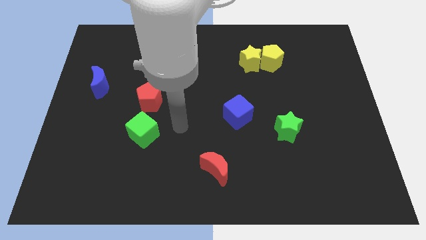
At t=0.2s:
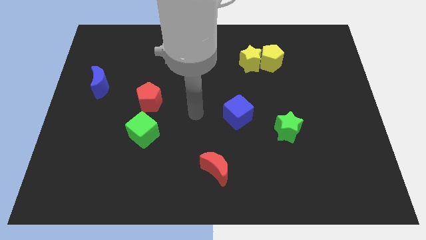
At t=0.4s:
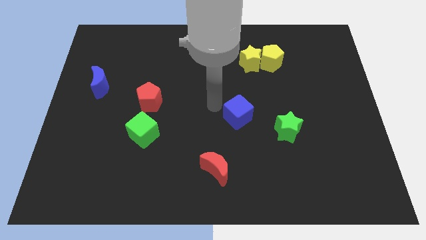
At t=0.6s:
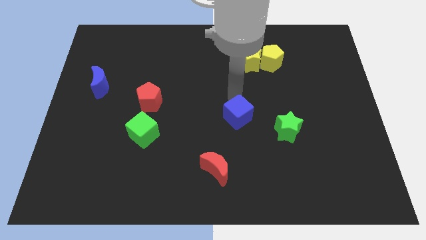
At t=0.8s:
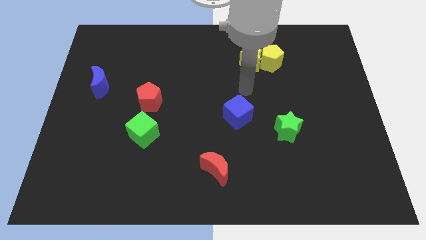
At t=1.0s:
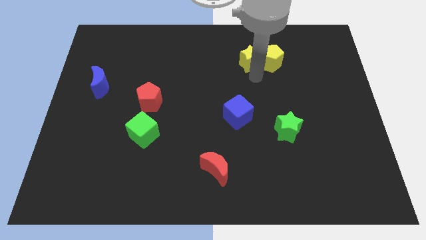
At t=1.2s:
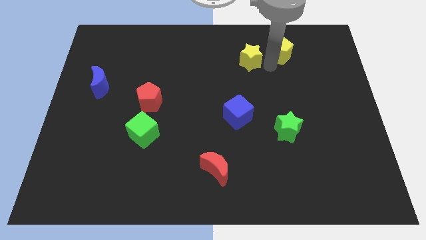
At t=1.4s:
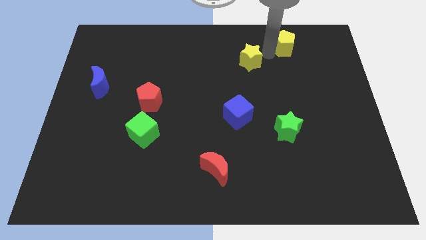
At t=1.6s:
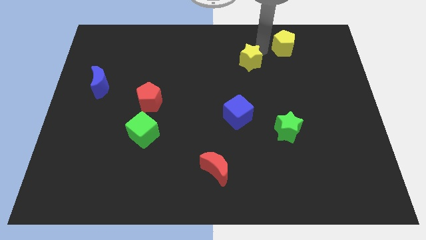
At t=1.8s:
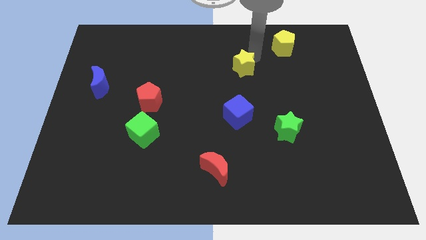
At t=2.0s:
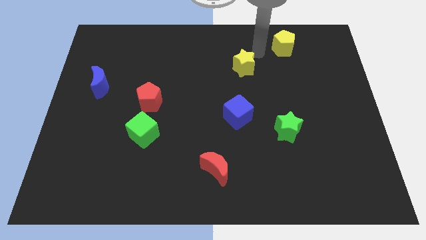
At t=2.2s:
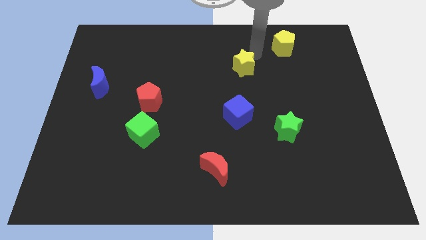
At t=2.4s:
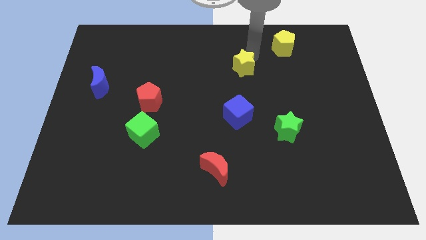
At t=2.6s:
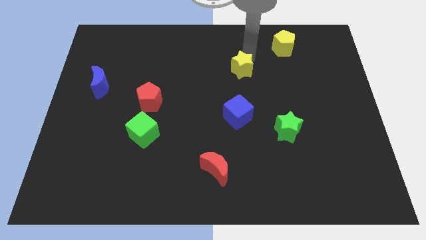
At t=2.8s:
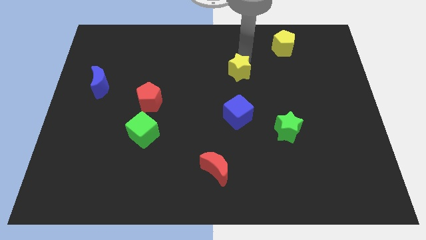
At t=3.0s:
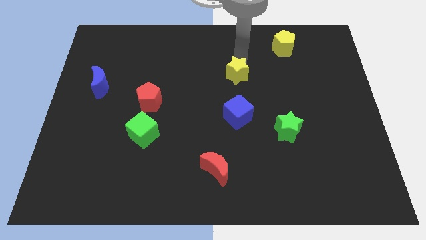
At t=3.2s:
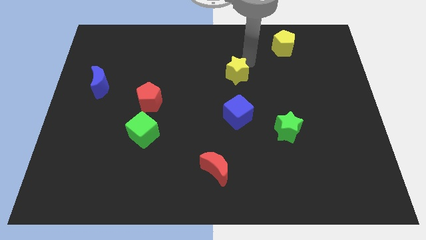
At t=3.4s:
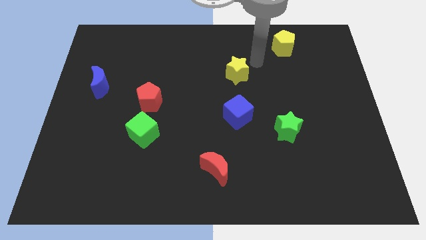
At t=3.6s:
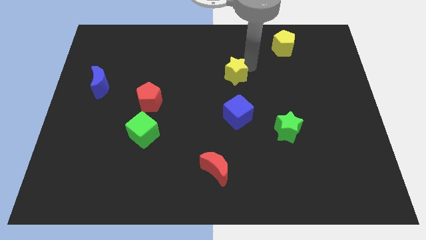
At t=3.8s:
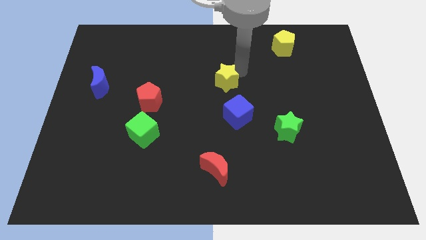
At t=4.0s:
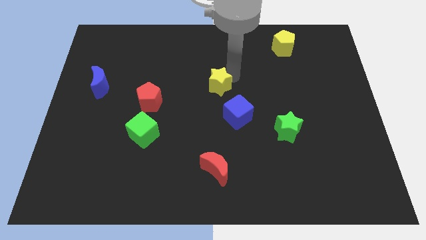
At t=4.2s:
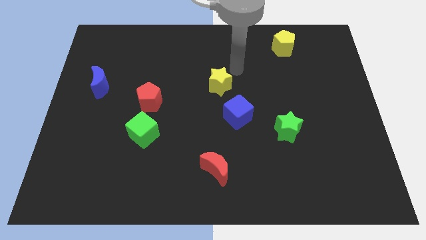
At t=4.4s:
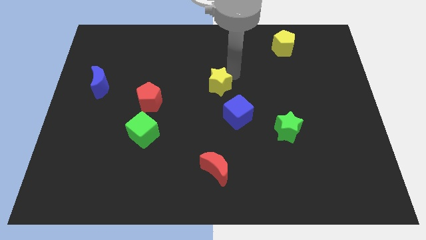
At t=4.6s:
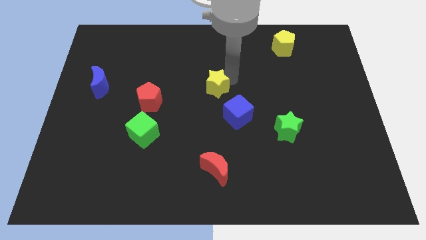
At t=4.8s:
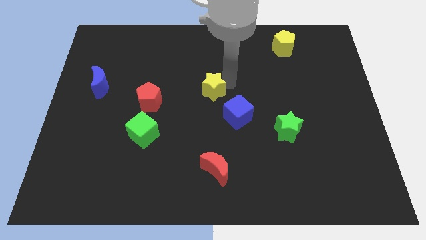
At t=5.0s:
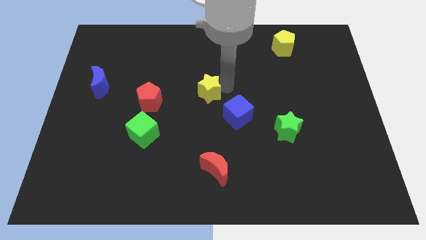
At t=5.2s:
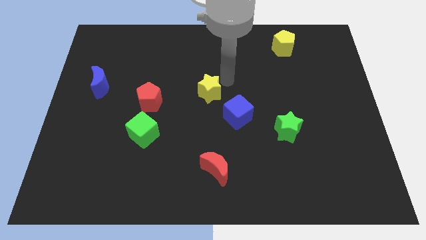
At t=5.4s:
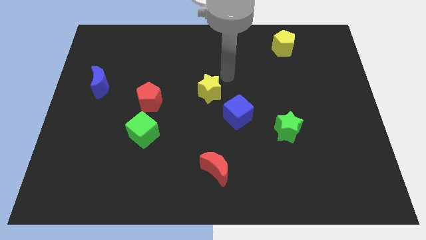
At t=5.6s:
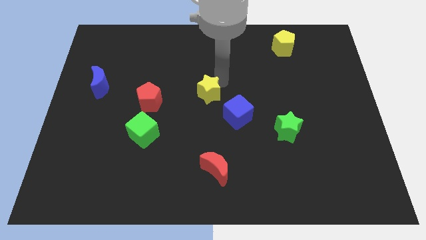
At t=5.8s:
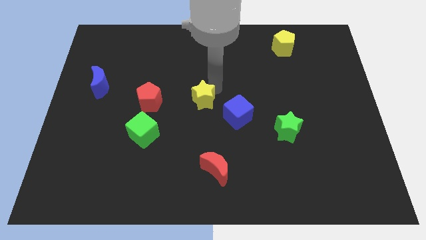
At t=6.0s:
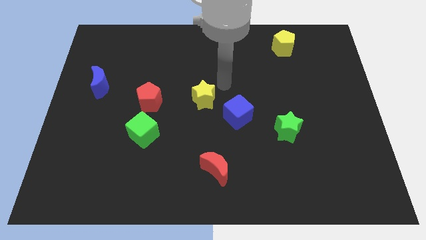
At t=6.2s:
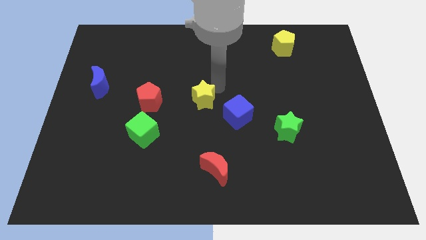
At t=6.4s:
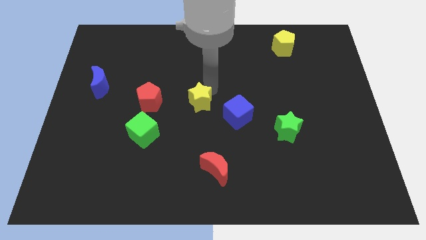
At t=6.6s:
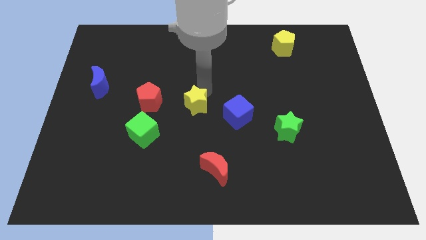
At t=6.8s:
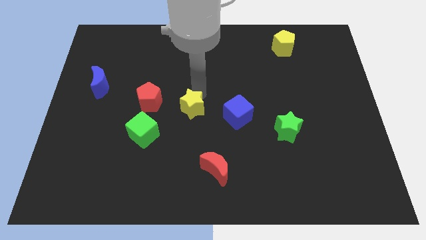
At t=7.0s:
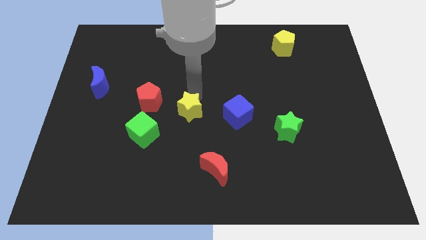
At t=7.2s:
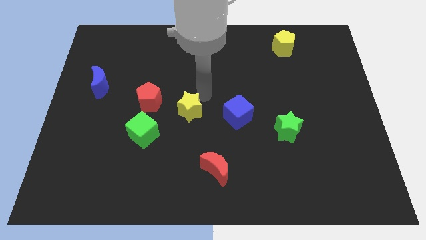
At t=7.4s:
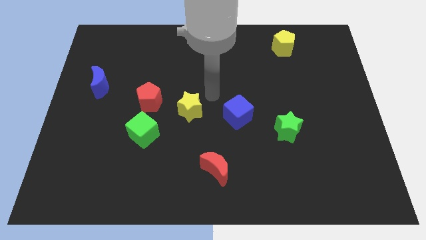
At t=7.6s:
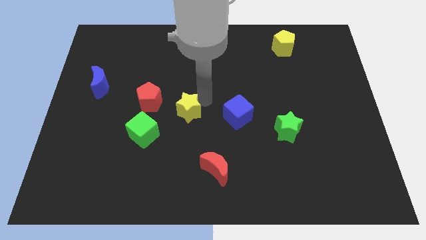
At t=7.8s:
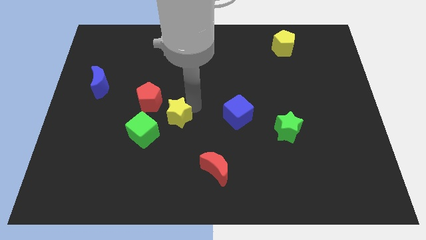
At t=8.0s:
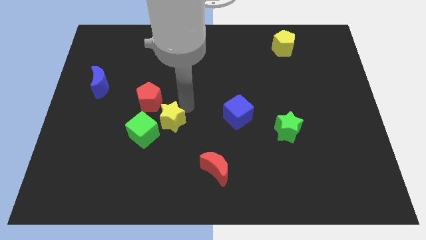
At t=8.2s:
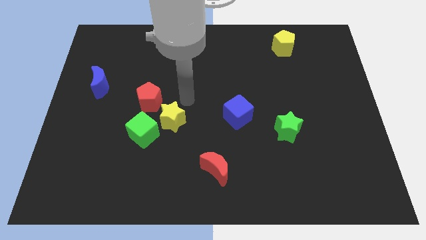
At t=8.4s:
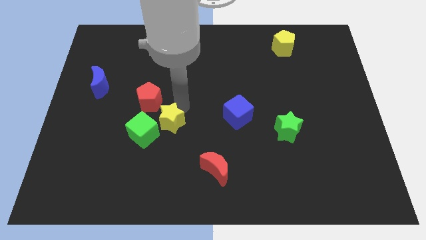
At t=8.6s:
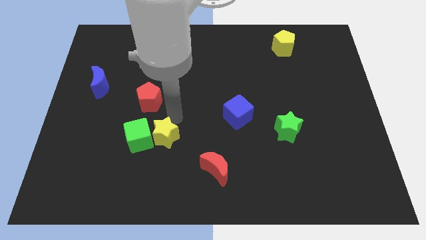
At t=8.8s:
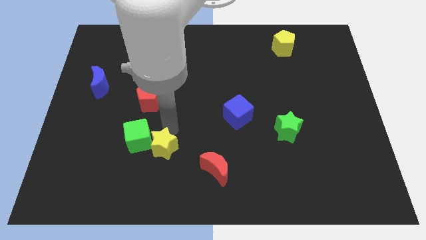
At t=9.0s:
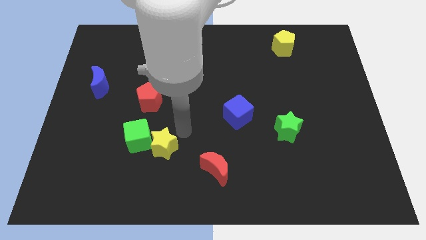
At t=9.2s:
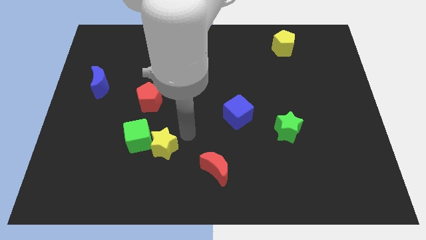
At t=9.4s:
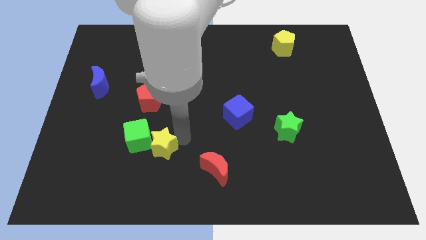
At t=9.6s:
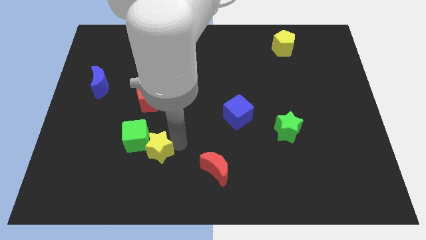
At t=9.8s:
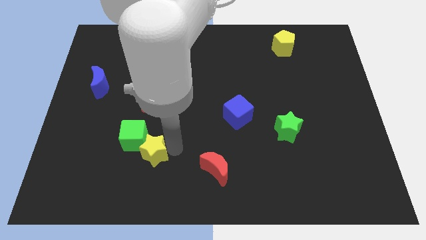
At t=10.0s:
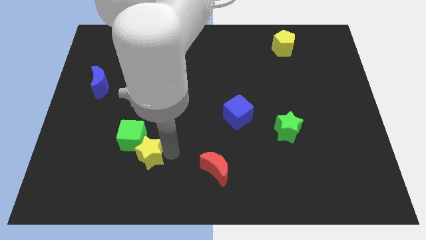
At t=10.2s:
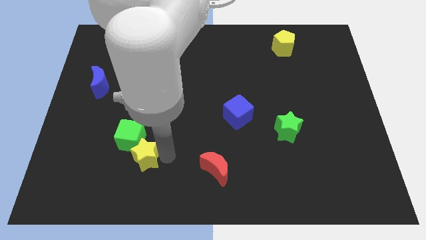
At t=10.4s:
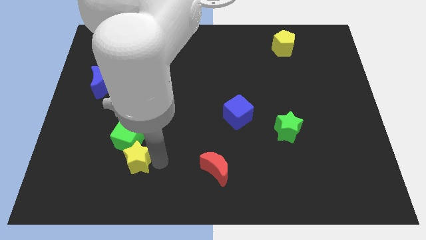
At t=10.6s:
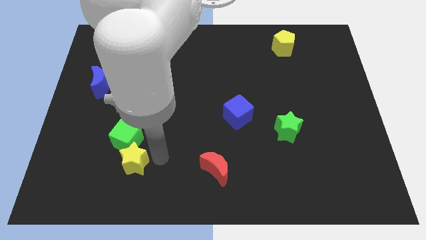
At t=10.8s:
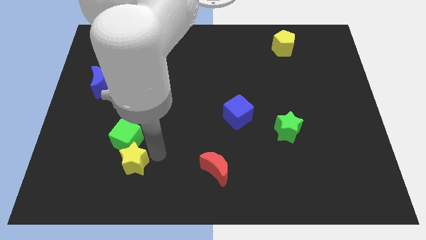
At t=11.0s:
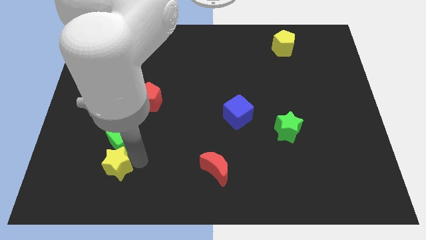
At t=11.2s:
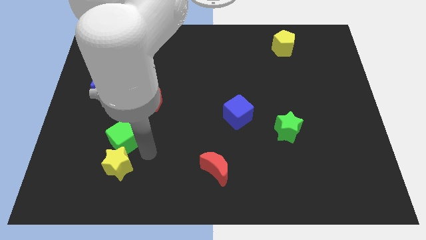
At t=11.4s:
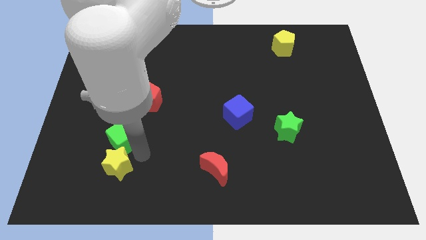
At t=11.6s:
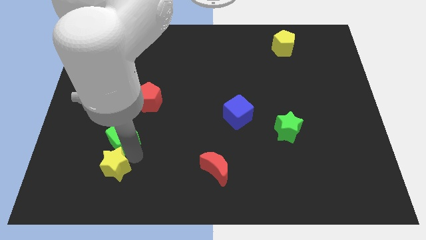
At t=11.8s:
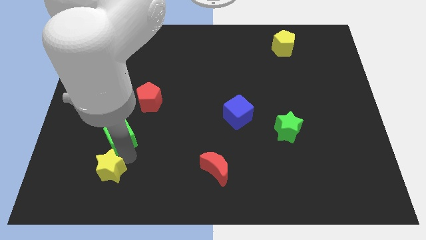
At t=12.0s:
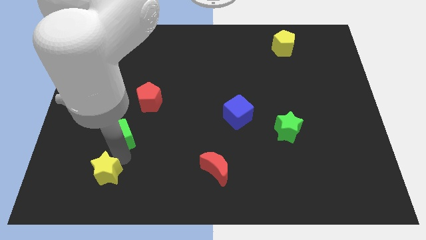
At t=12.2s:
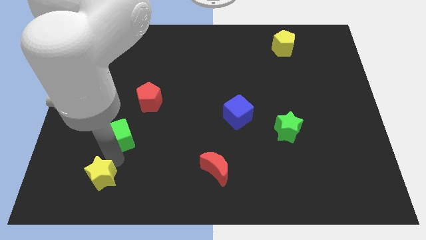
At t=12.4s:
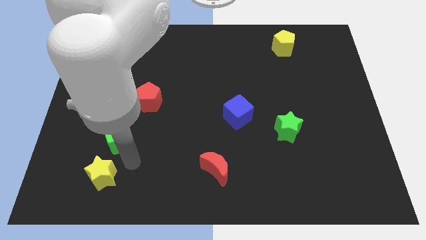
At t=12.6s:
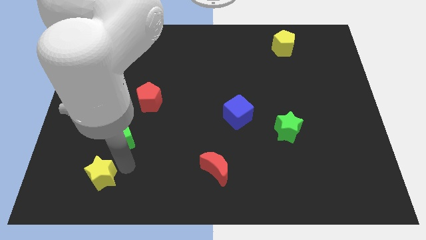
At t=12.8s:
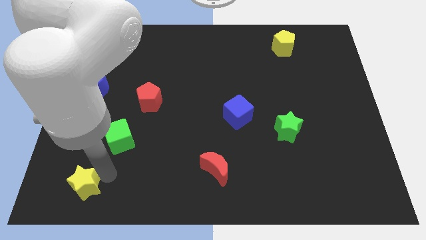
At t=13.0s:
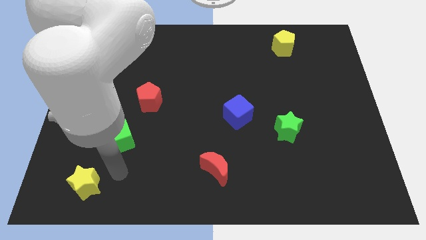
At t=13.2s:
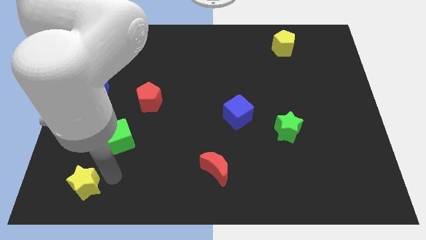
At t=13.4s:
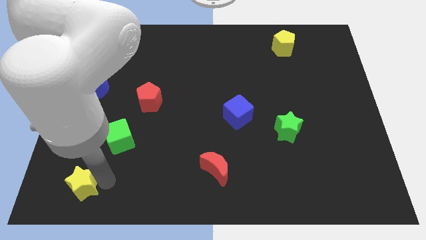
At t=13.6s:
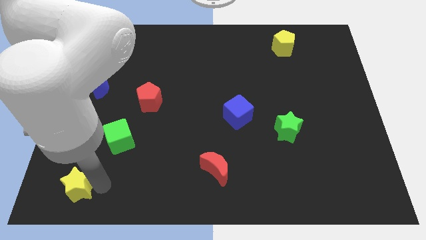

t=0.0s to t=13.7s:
move the yellow star to the bottom left

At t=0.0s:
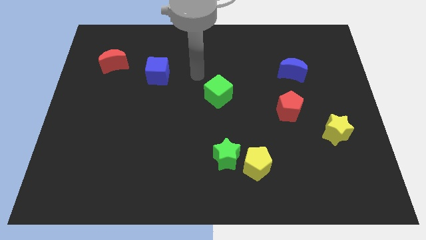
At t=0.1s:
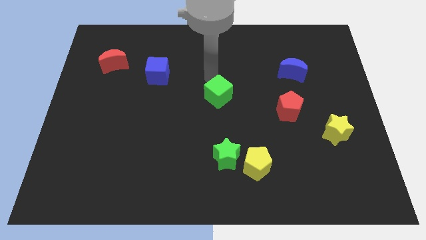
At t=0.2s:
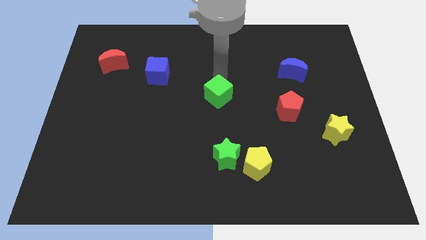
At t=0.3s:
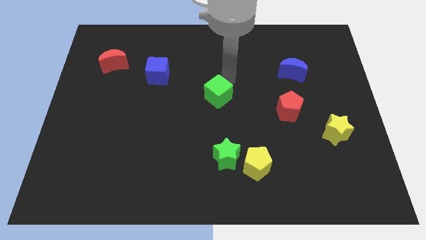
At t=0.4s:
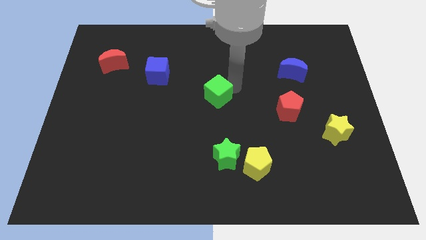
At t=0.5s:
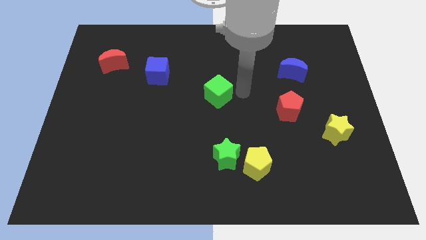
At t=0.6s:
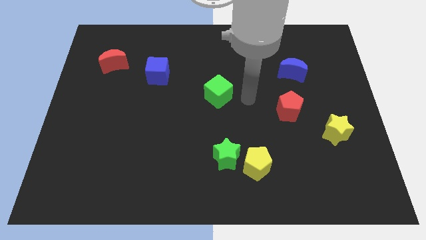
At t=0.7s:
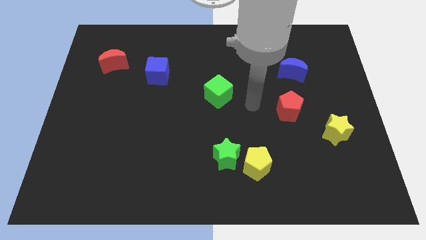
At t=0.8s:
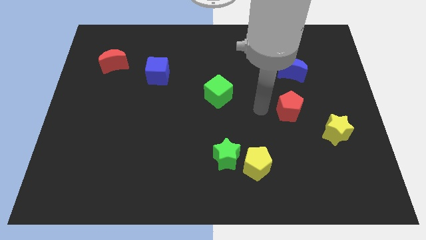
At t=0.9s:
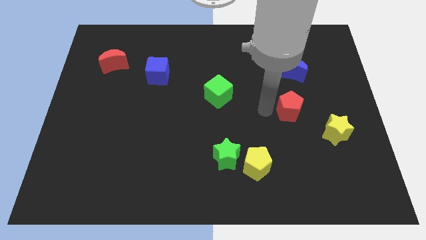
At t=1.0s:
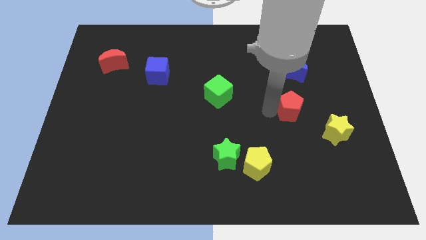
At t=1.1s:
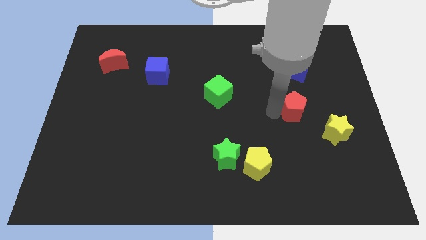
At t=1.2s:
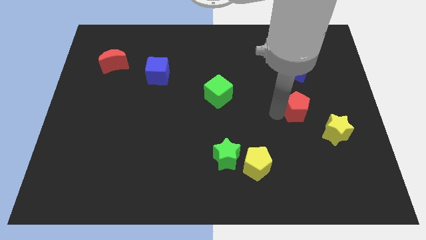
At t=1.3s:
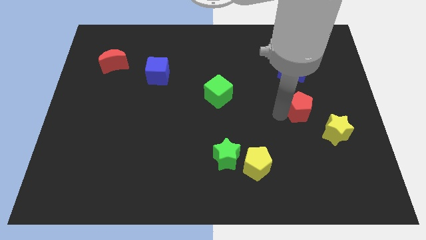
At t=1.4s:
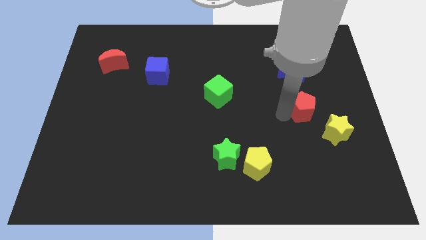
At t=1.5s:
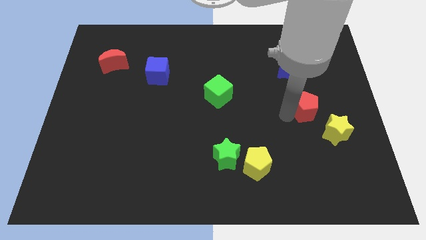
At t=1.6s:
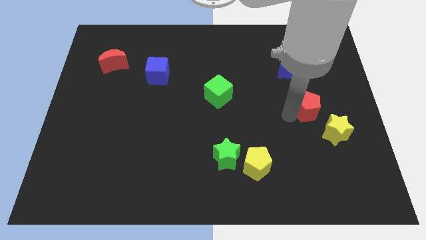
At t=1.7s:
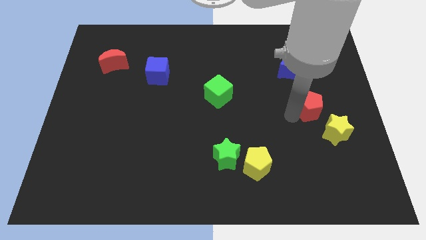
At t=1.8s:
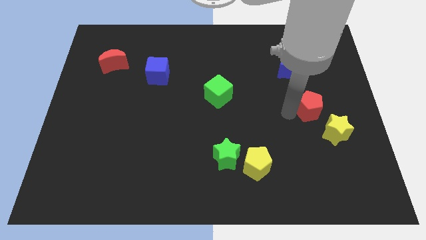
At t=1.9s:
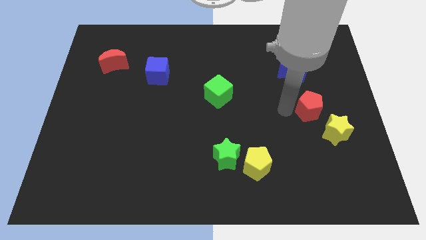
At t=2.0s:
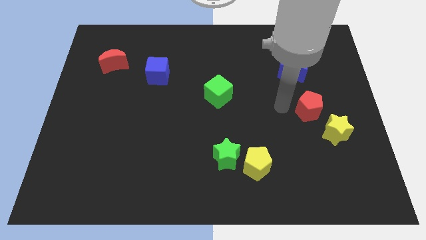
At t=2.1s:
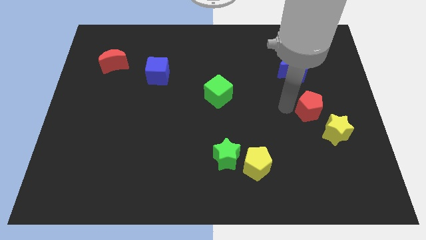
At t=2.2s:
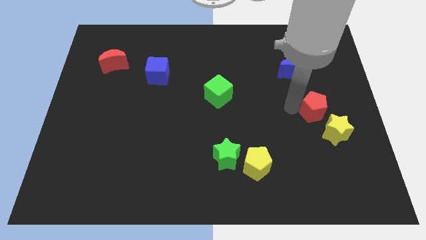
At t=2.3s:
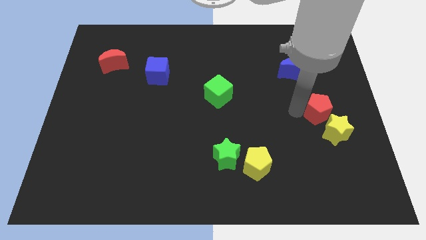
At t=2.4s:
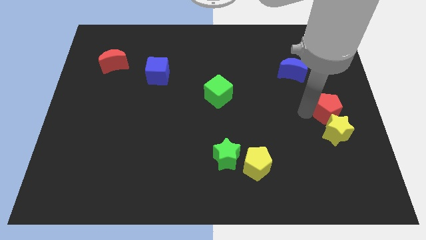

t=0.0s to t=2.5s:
put the red pentagon to the right side of the board
